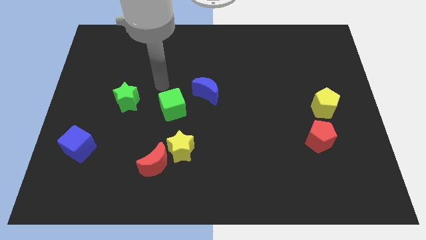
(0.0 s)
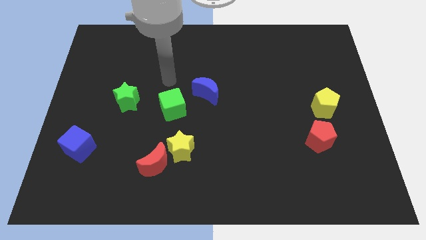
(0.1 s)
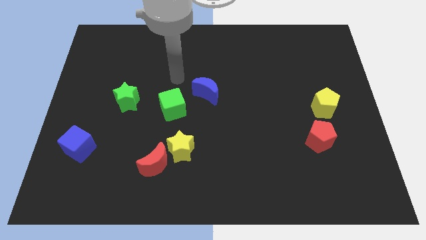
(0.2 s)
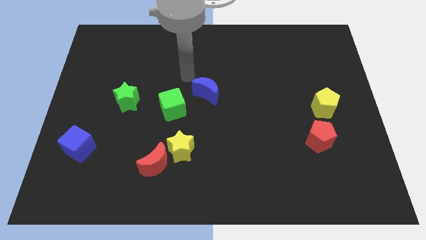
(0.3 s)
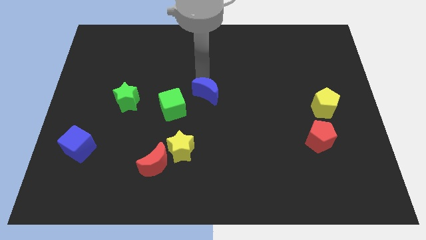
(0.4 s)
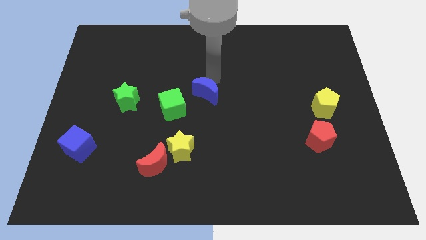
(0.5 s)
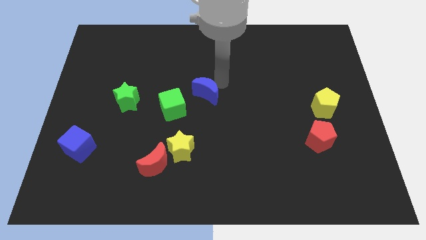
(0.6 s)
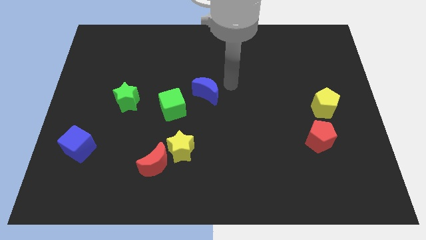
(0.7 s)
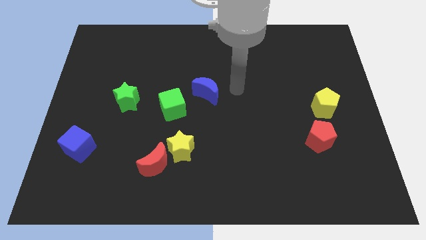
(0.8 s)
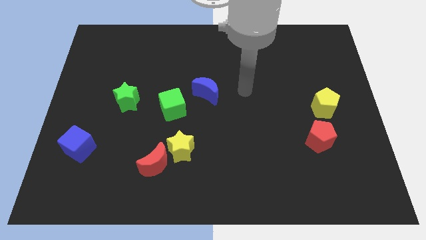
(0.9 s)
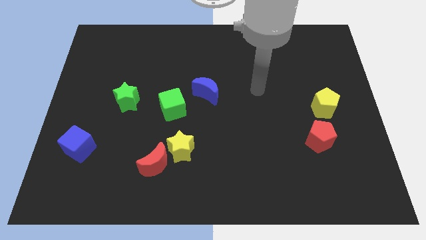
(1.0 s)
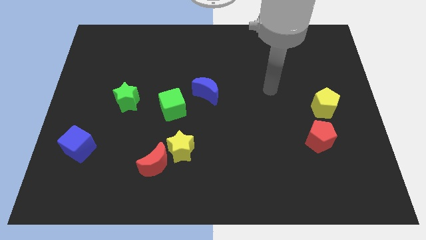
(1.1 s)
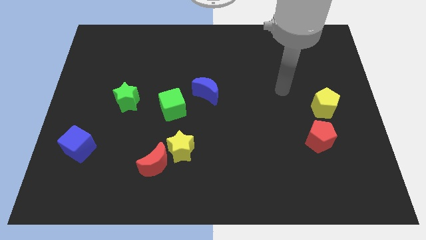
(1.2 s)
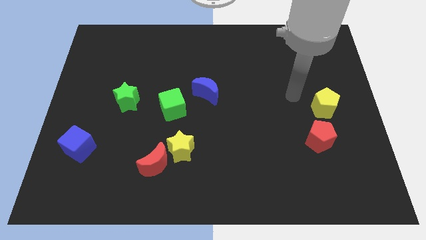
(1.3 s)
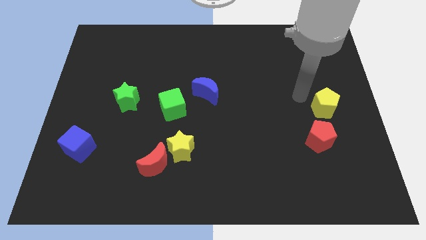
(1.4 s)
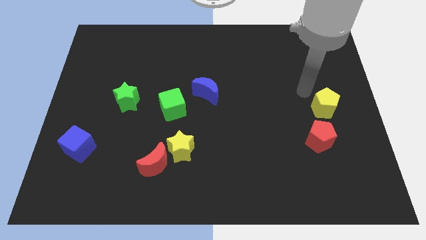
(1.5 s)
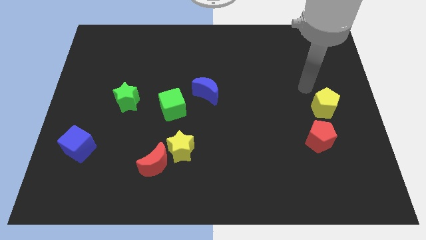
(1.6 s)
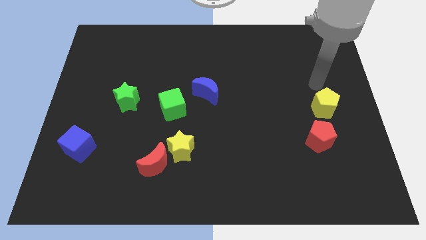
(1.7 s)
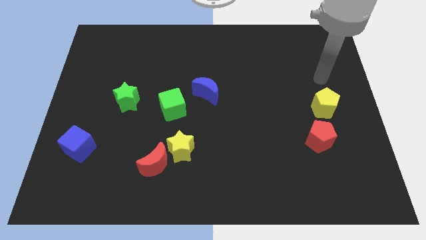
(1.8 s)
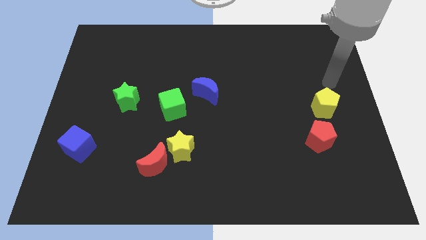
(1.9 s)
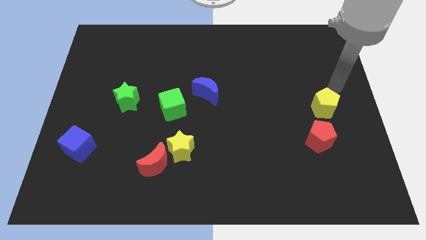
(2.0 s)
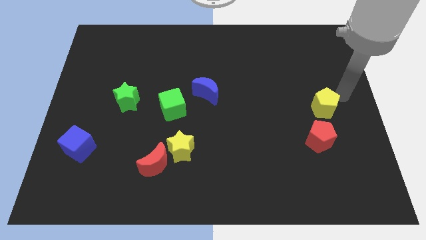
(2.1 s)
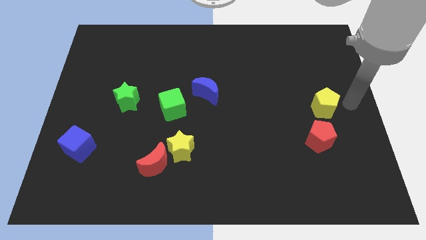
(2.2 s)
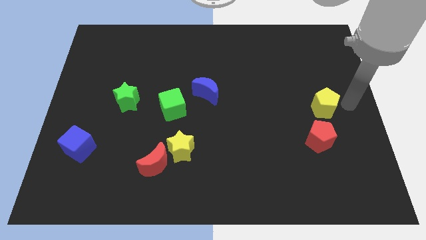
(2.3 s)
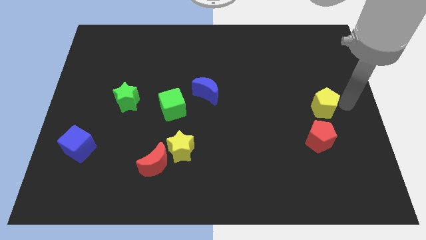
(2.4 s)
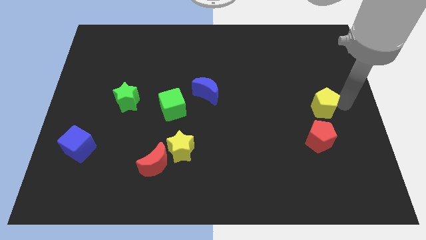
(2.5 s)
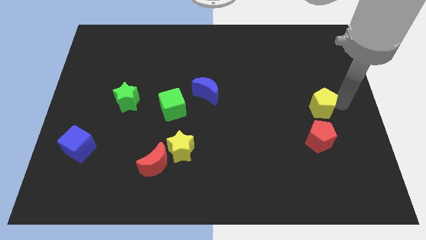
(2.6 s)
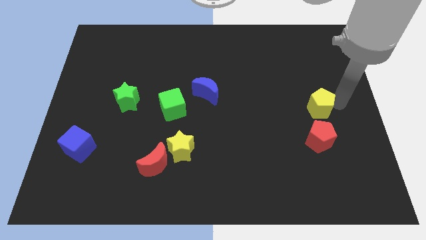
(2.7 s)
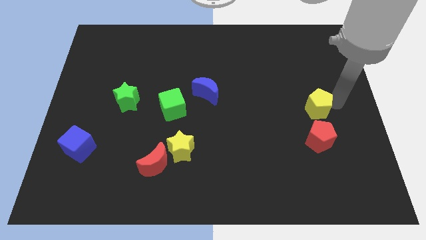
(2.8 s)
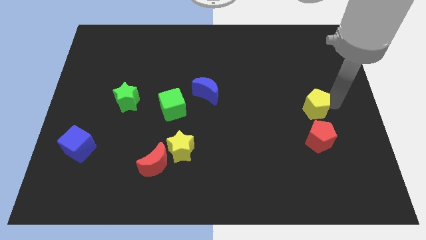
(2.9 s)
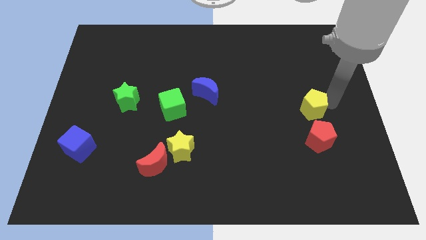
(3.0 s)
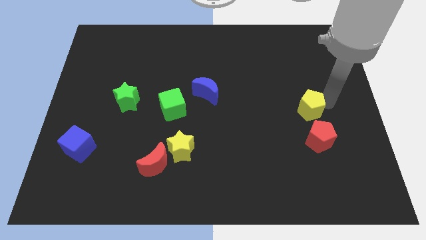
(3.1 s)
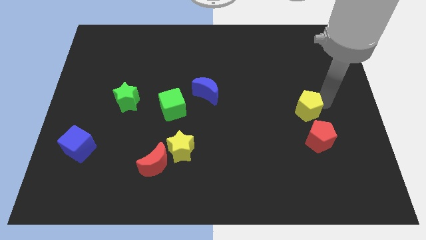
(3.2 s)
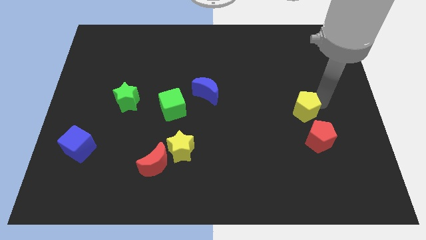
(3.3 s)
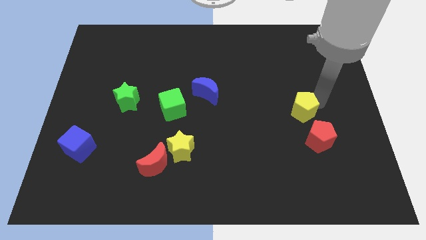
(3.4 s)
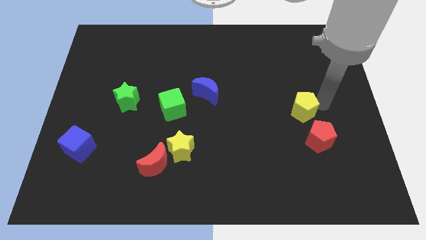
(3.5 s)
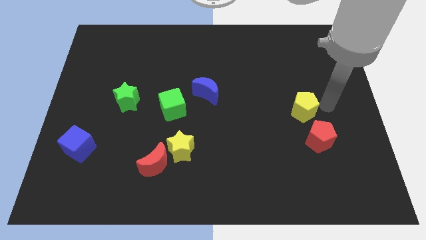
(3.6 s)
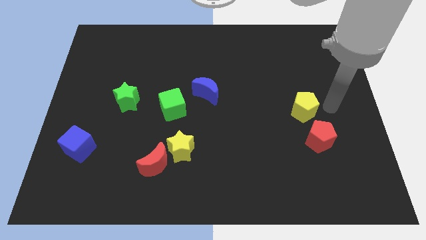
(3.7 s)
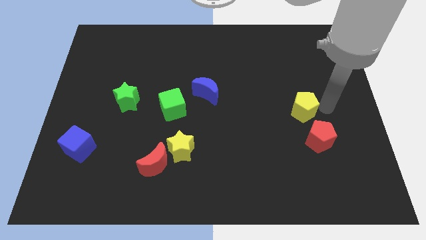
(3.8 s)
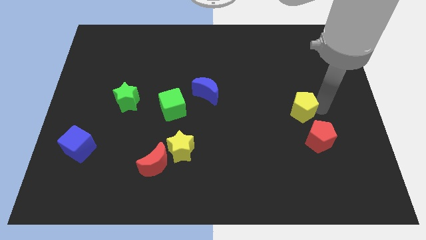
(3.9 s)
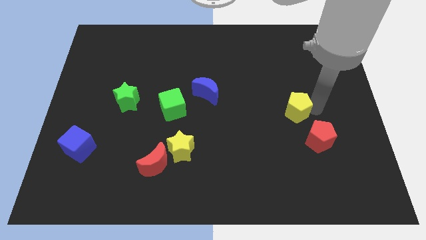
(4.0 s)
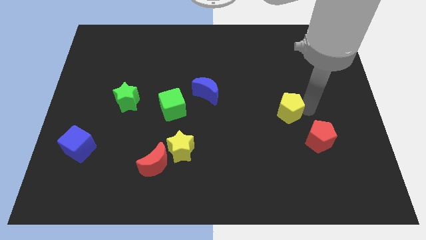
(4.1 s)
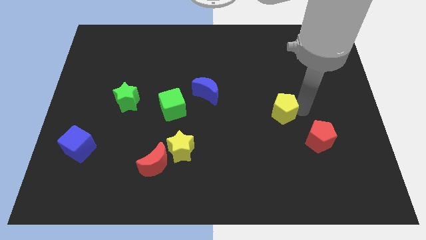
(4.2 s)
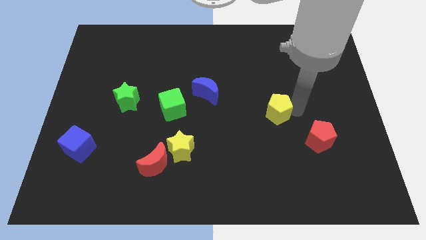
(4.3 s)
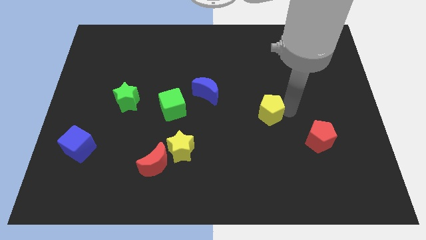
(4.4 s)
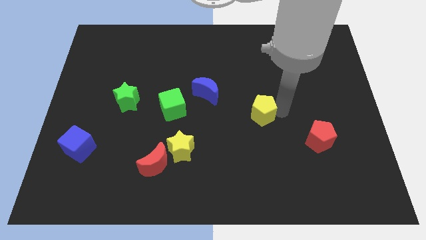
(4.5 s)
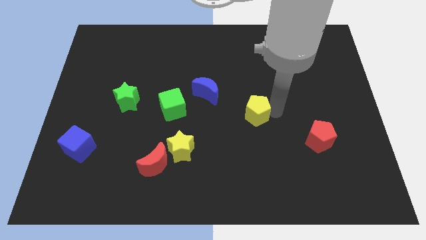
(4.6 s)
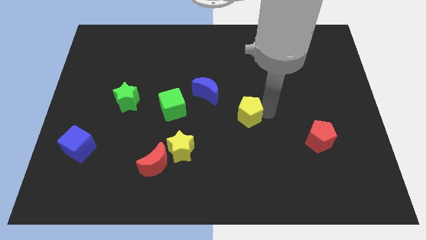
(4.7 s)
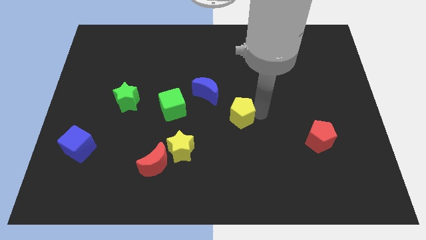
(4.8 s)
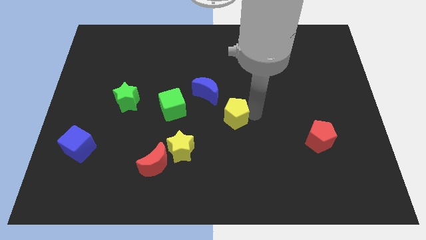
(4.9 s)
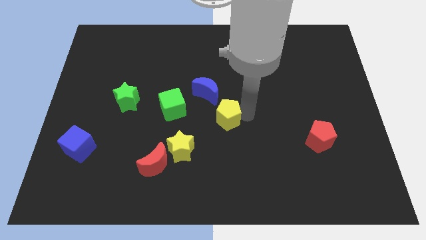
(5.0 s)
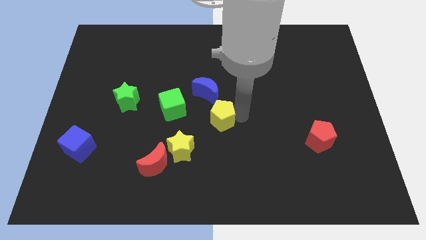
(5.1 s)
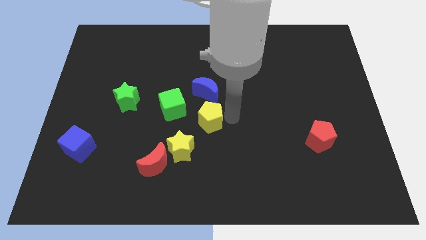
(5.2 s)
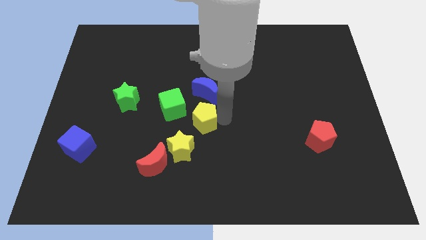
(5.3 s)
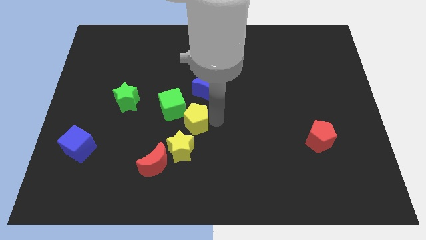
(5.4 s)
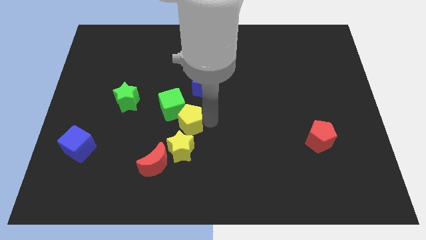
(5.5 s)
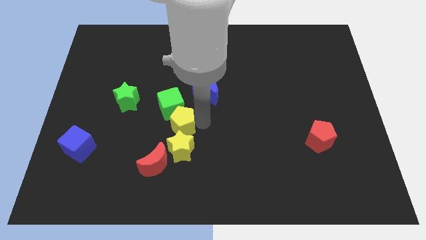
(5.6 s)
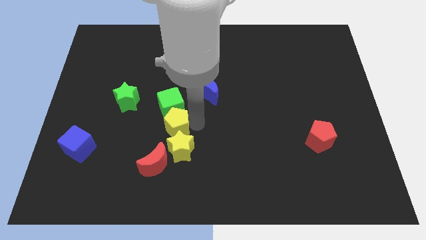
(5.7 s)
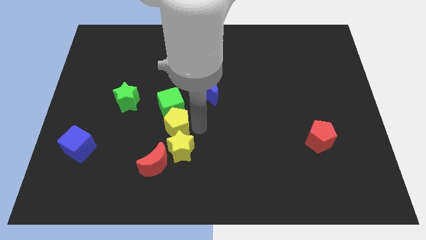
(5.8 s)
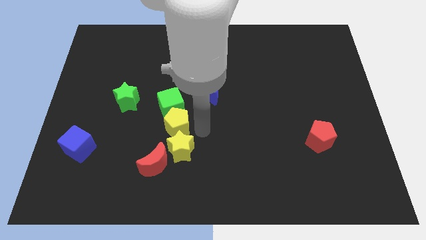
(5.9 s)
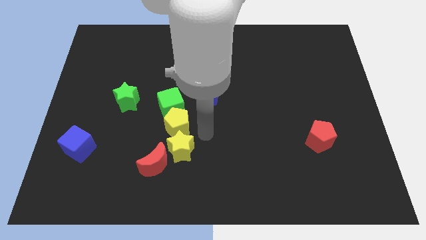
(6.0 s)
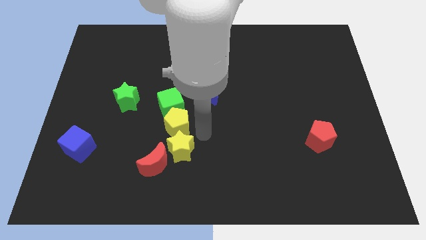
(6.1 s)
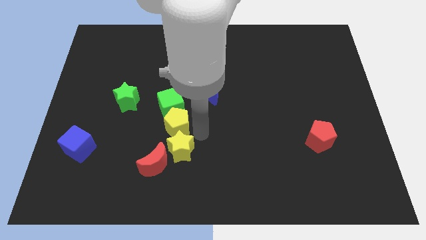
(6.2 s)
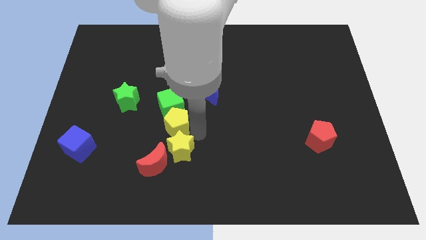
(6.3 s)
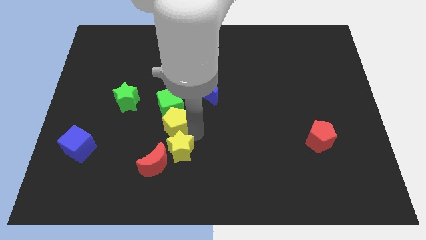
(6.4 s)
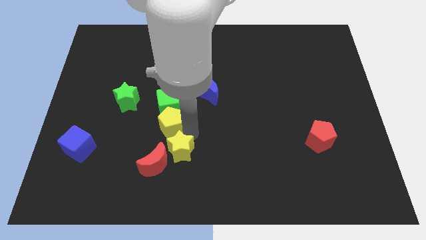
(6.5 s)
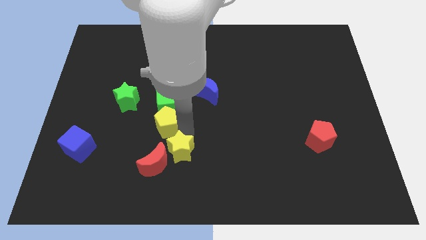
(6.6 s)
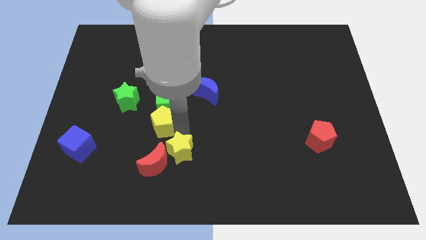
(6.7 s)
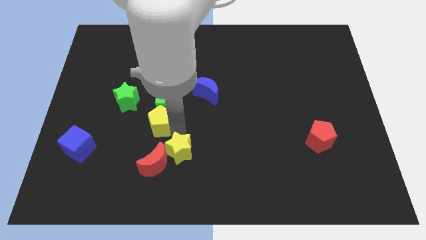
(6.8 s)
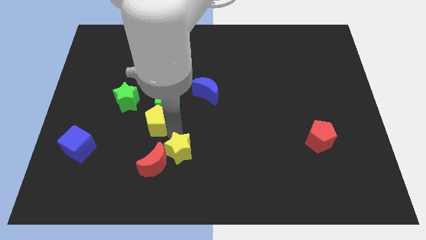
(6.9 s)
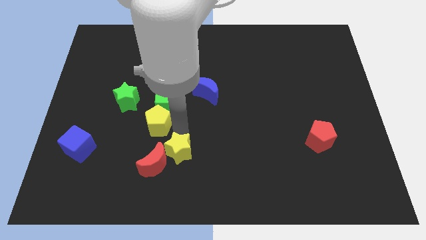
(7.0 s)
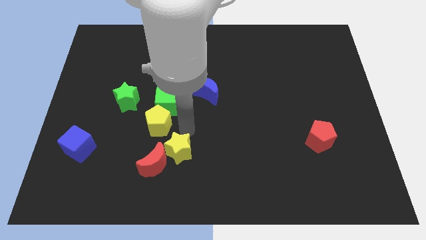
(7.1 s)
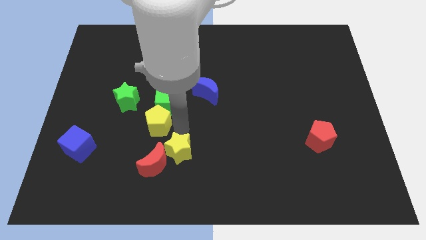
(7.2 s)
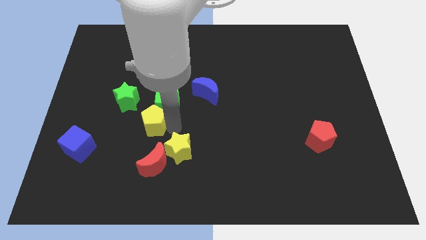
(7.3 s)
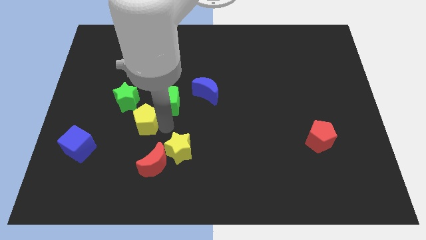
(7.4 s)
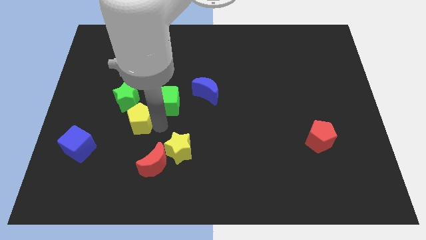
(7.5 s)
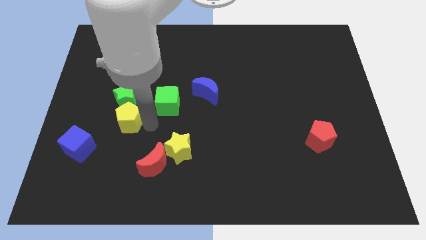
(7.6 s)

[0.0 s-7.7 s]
push the yellow pentagon to the left of the green cube
